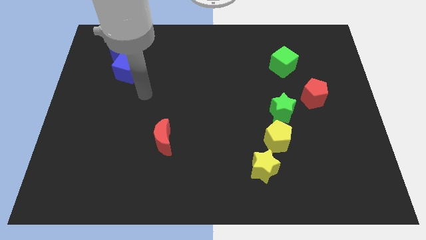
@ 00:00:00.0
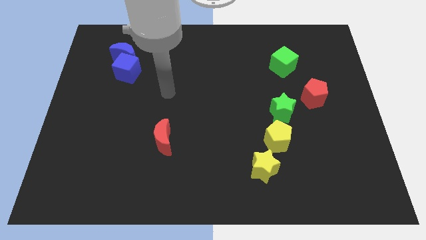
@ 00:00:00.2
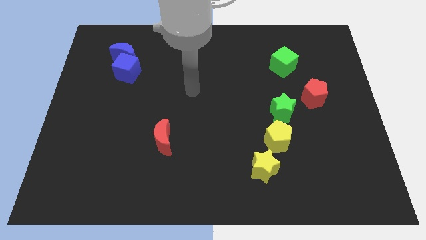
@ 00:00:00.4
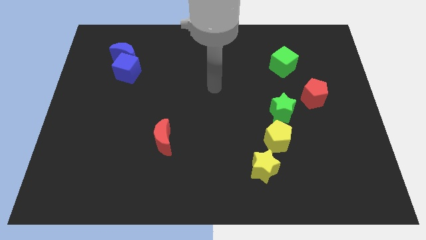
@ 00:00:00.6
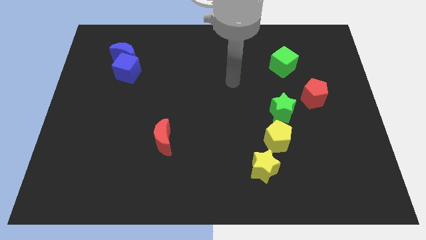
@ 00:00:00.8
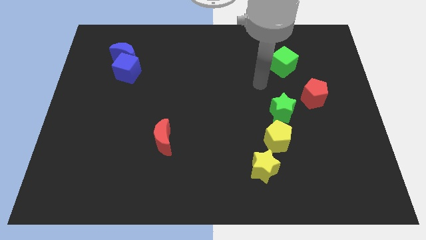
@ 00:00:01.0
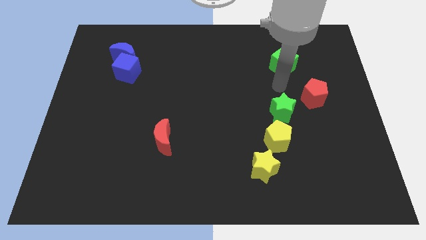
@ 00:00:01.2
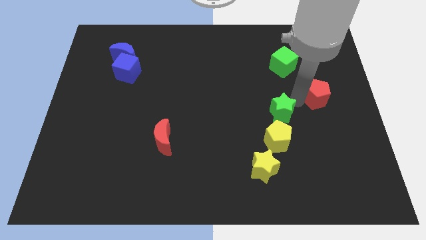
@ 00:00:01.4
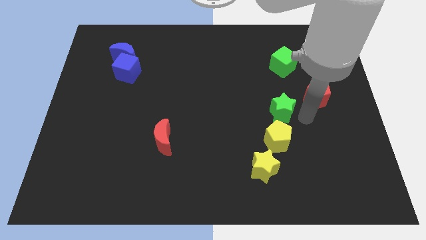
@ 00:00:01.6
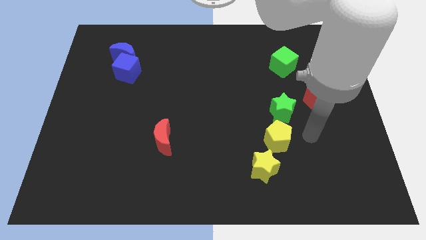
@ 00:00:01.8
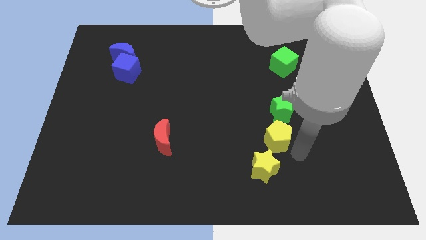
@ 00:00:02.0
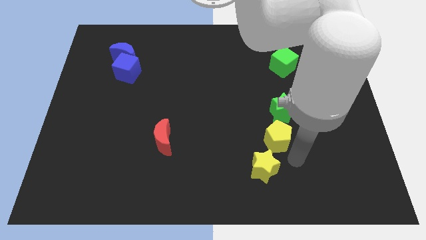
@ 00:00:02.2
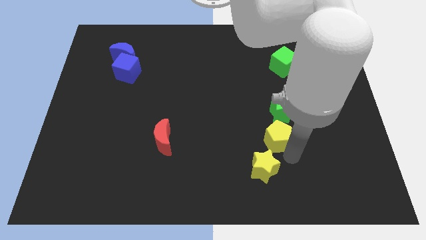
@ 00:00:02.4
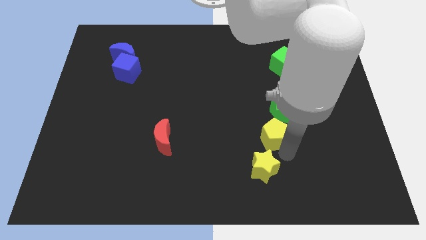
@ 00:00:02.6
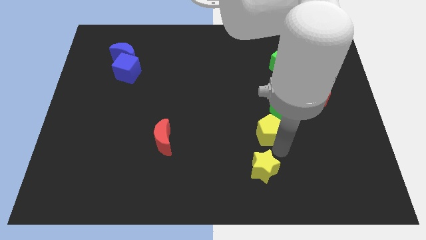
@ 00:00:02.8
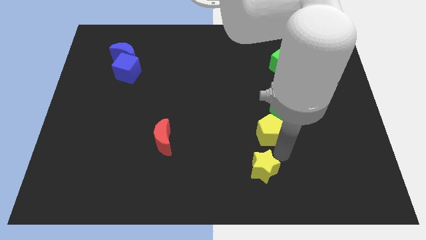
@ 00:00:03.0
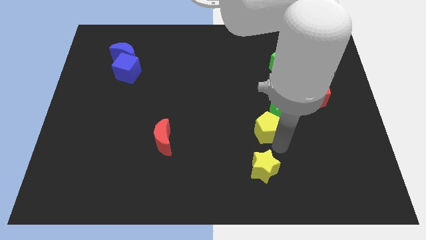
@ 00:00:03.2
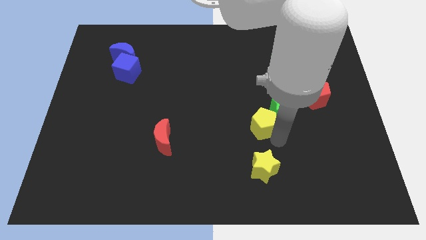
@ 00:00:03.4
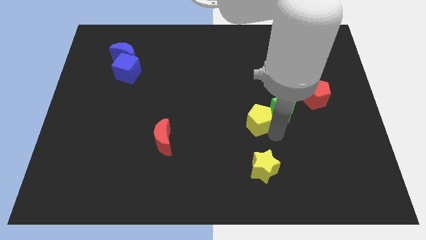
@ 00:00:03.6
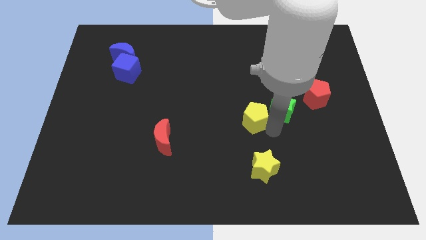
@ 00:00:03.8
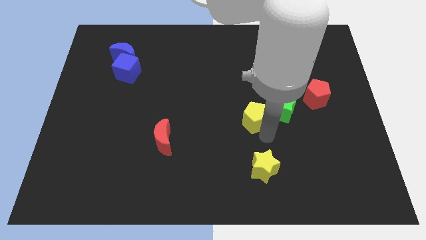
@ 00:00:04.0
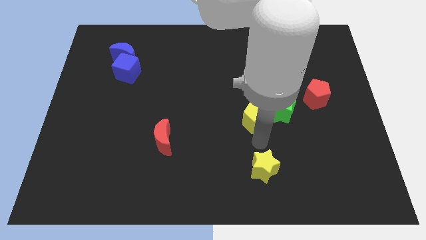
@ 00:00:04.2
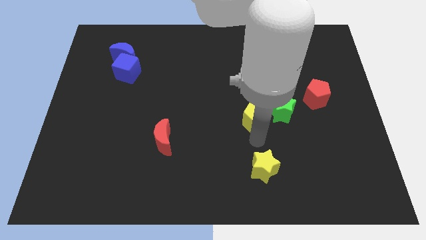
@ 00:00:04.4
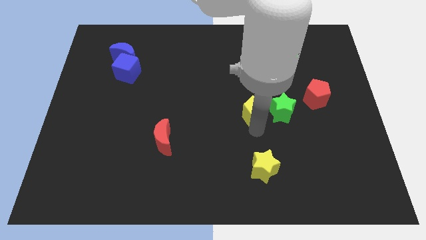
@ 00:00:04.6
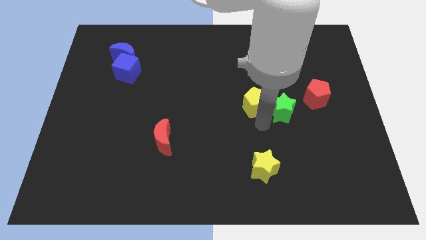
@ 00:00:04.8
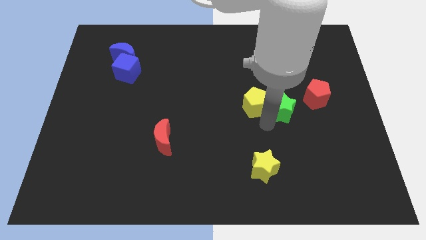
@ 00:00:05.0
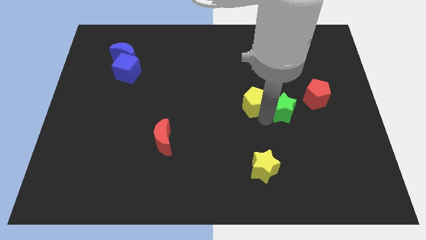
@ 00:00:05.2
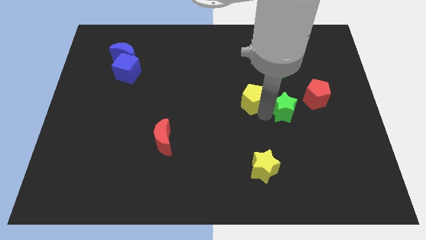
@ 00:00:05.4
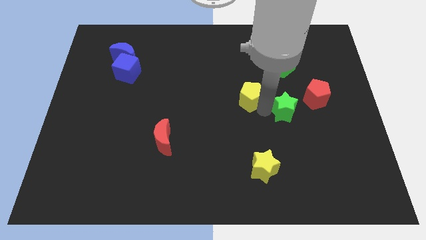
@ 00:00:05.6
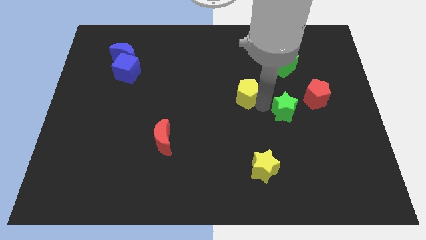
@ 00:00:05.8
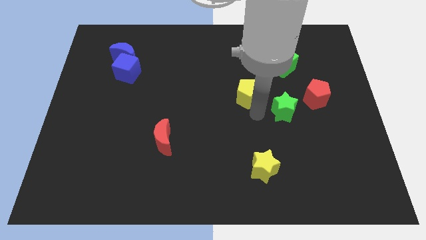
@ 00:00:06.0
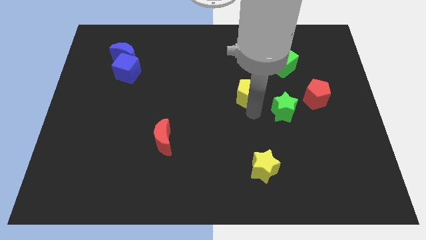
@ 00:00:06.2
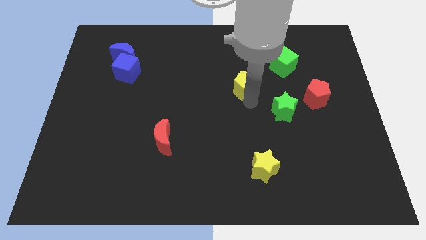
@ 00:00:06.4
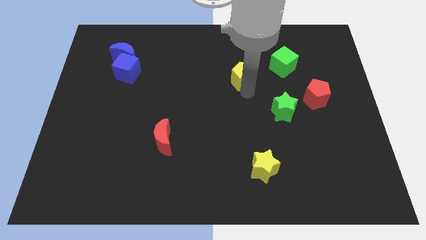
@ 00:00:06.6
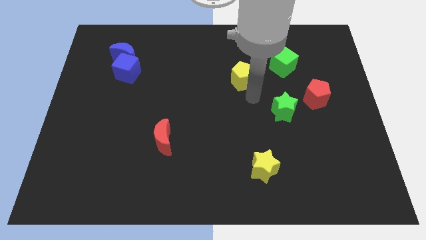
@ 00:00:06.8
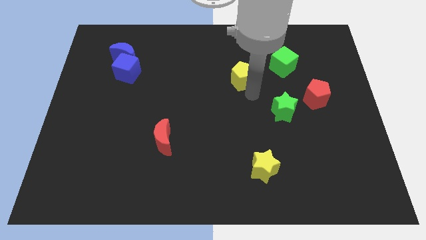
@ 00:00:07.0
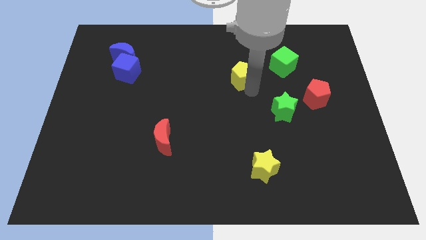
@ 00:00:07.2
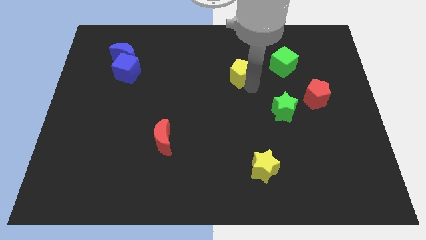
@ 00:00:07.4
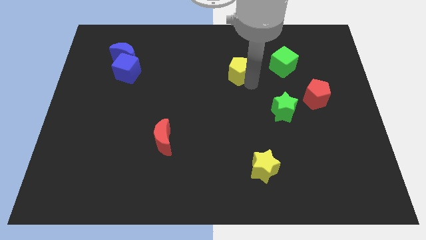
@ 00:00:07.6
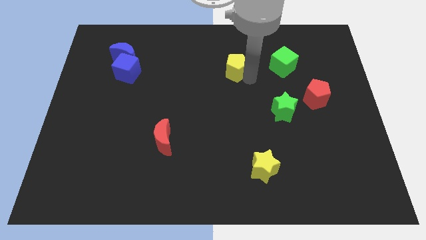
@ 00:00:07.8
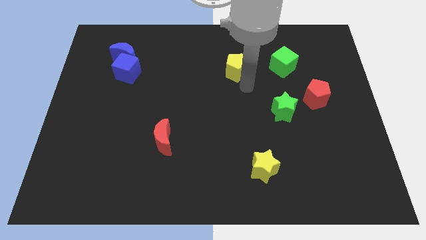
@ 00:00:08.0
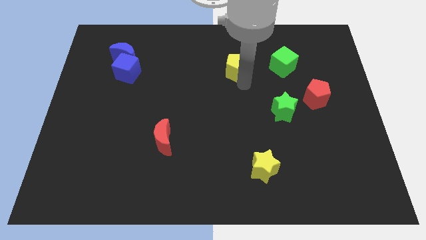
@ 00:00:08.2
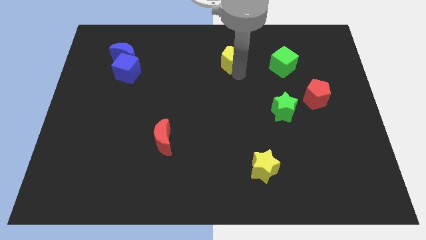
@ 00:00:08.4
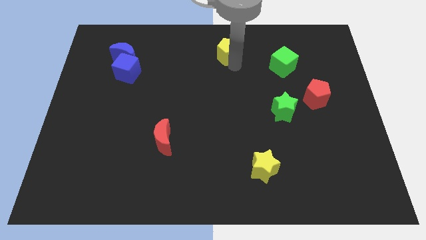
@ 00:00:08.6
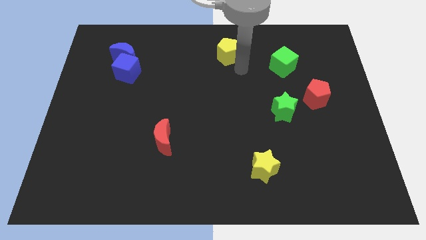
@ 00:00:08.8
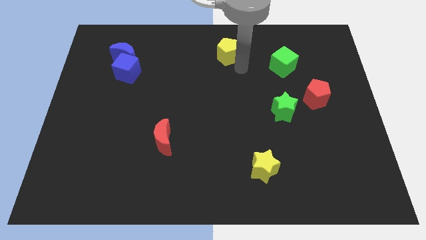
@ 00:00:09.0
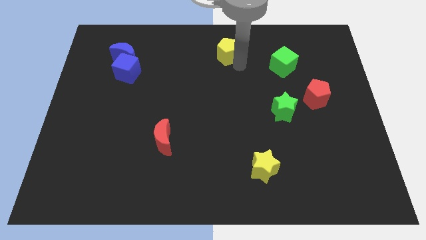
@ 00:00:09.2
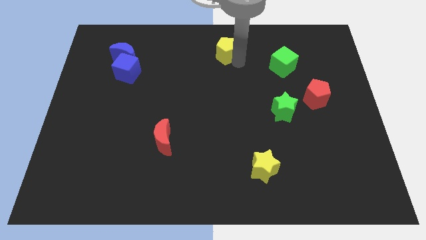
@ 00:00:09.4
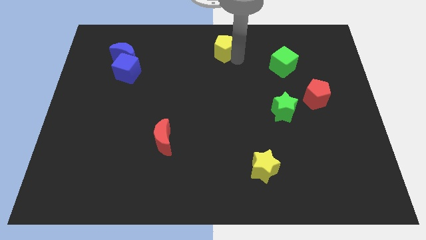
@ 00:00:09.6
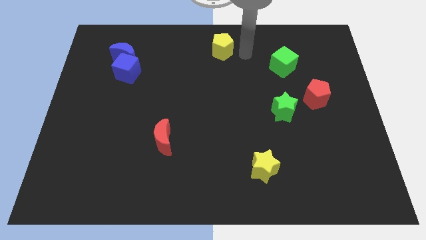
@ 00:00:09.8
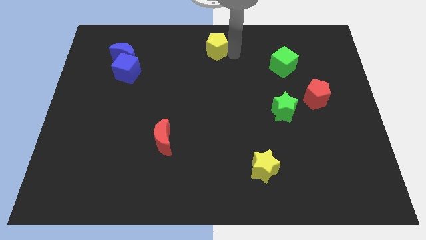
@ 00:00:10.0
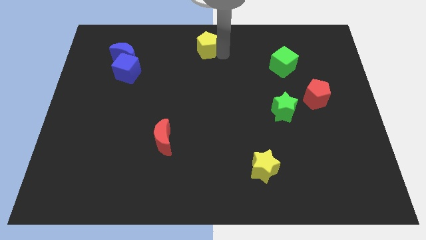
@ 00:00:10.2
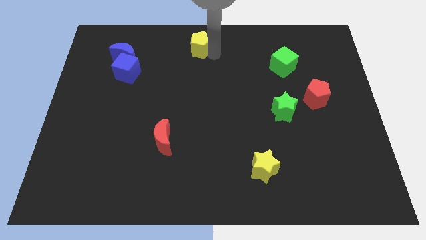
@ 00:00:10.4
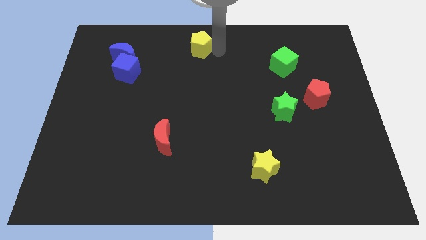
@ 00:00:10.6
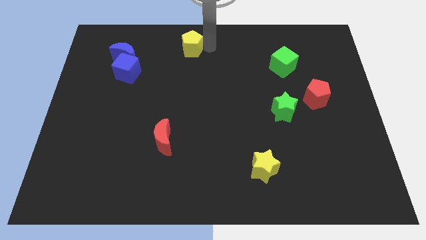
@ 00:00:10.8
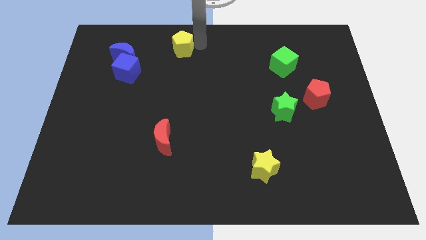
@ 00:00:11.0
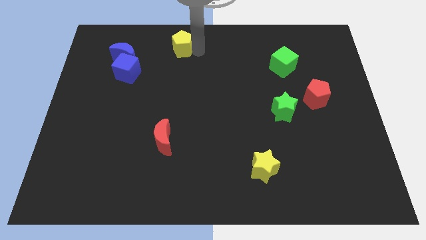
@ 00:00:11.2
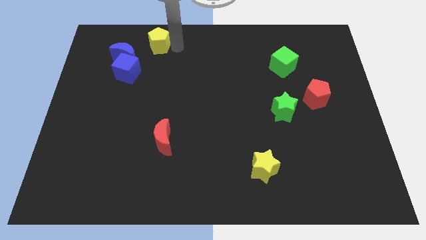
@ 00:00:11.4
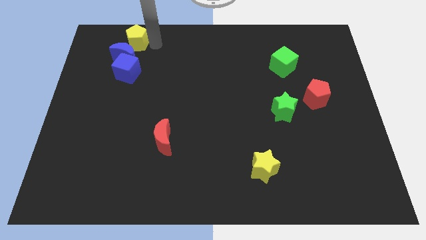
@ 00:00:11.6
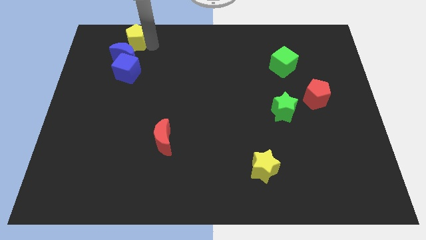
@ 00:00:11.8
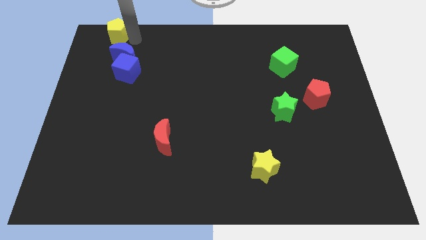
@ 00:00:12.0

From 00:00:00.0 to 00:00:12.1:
move the yellow pentagon to the top left corner

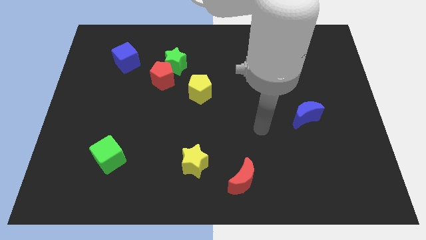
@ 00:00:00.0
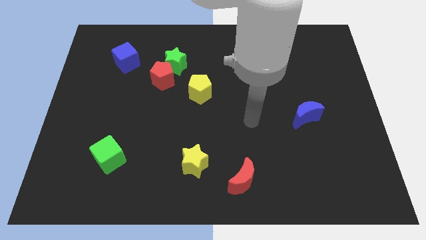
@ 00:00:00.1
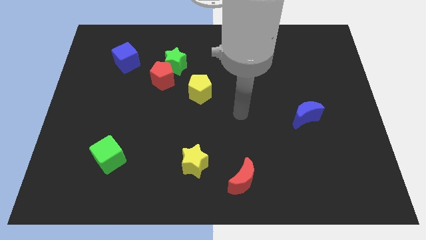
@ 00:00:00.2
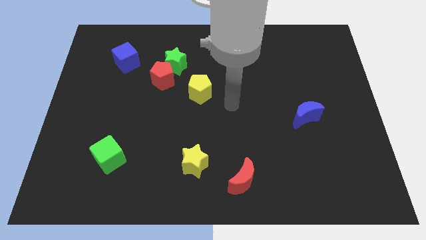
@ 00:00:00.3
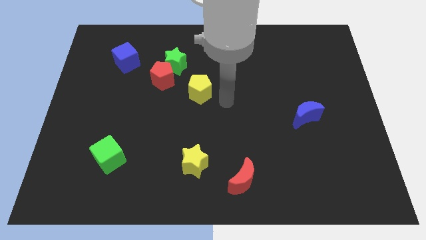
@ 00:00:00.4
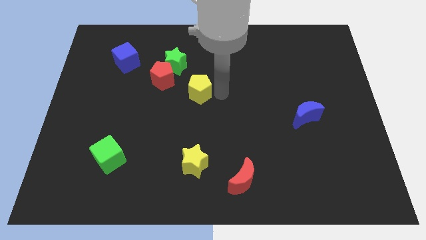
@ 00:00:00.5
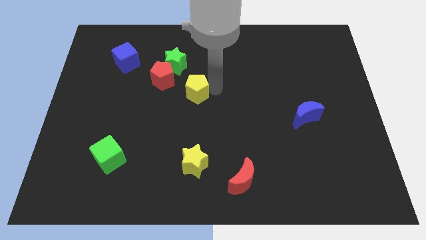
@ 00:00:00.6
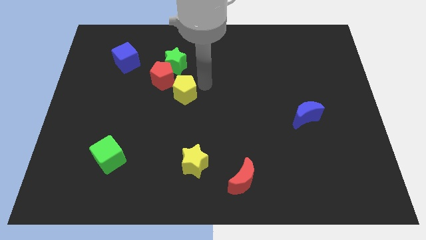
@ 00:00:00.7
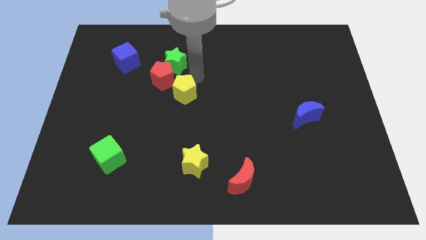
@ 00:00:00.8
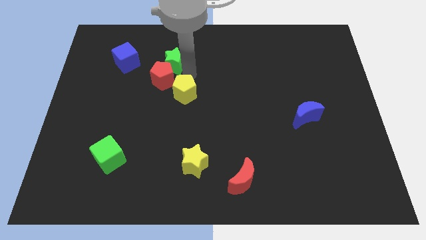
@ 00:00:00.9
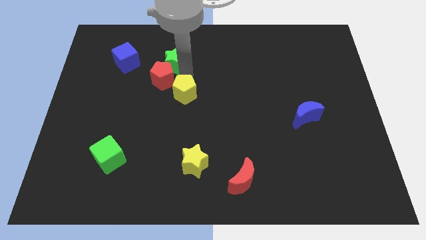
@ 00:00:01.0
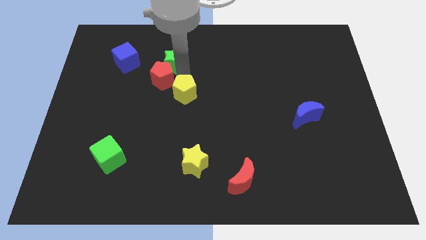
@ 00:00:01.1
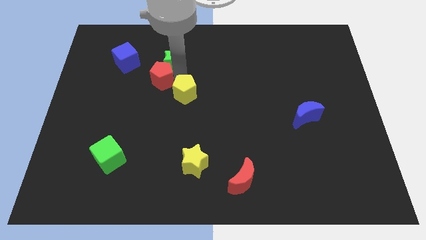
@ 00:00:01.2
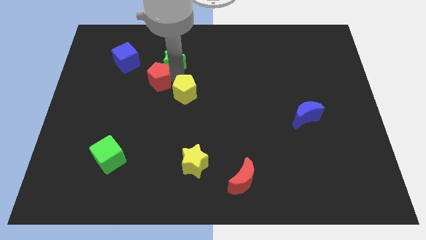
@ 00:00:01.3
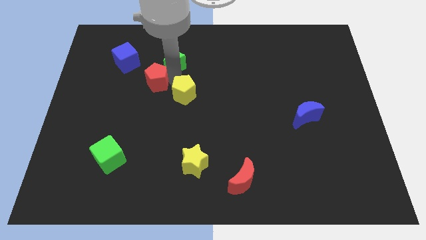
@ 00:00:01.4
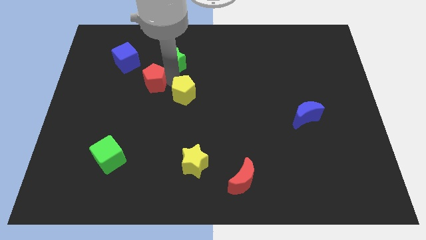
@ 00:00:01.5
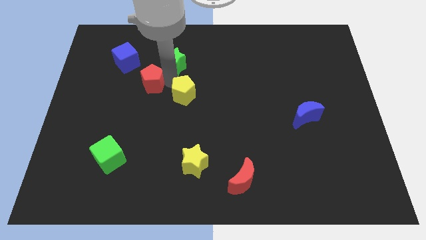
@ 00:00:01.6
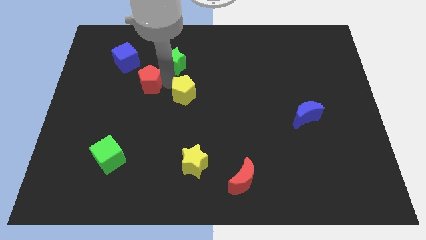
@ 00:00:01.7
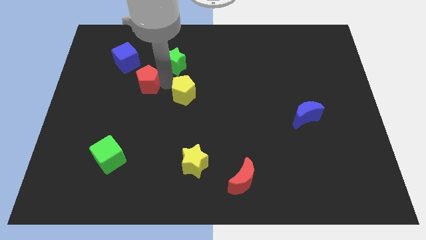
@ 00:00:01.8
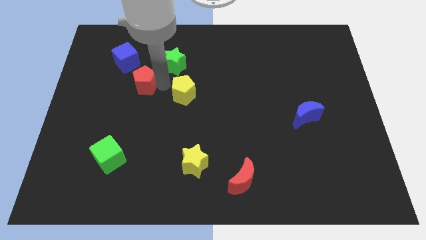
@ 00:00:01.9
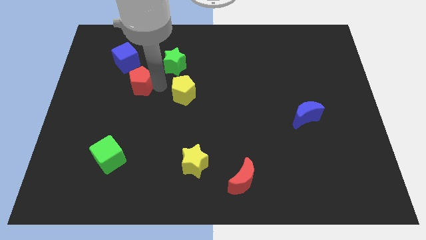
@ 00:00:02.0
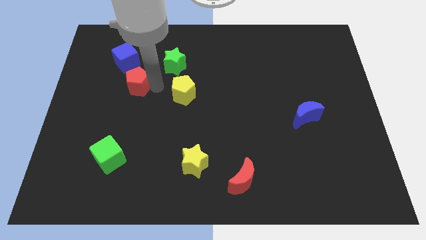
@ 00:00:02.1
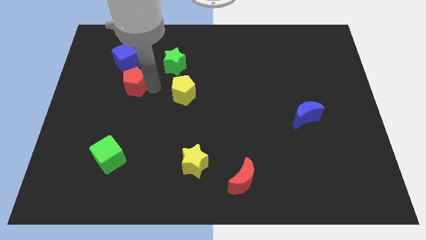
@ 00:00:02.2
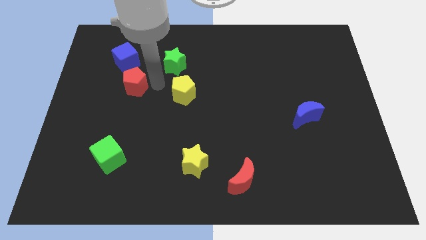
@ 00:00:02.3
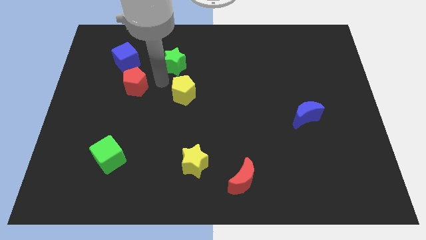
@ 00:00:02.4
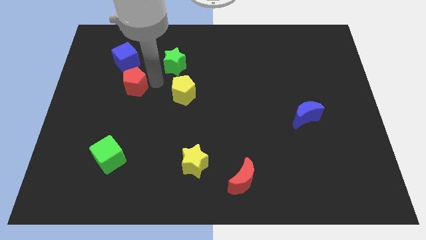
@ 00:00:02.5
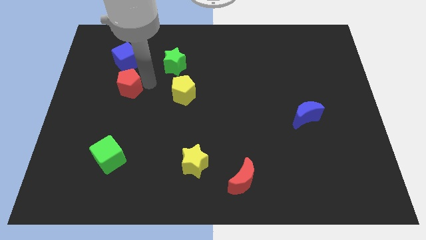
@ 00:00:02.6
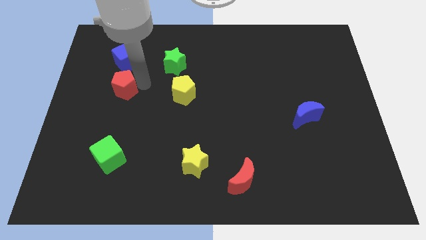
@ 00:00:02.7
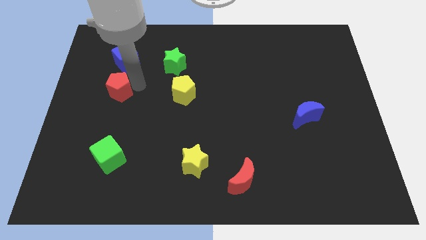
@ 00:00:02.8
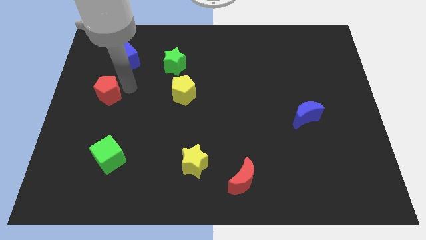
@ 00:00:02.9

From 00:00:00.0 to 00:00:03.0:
put the red pentagon to the left side of the board
